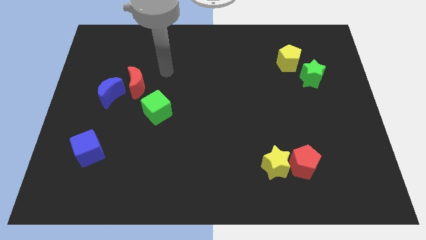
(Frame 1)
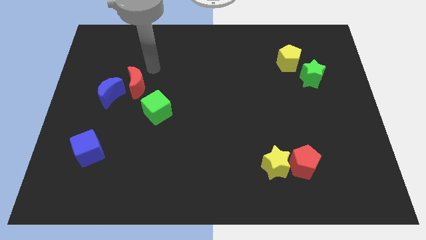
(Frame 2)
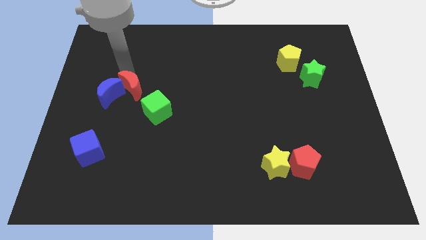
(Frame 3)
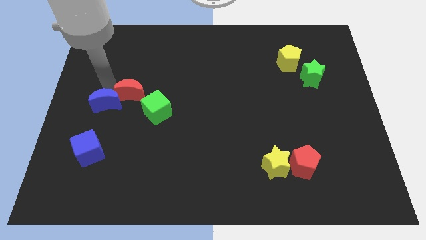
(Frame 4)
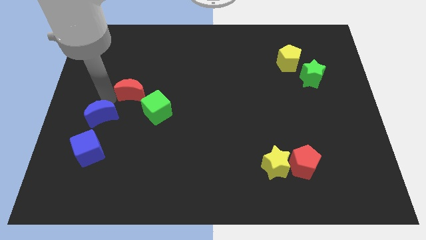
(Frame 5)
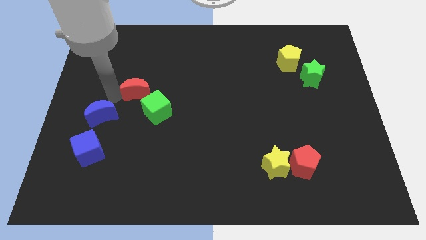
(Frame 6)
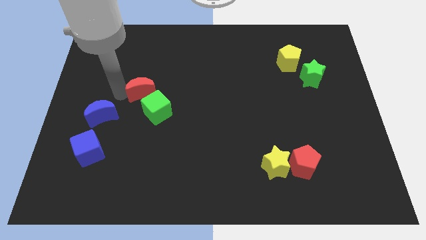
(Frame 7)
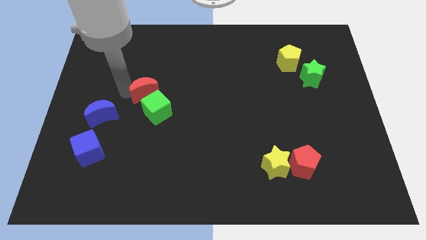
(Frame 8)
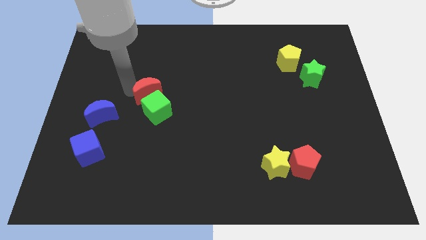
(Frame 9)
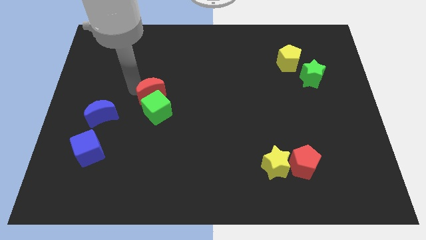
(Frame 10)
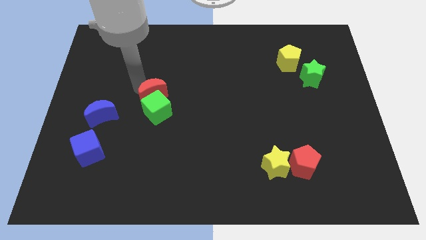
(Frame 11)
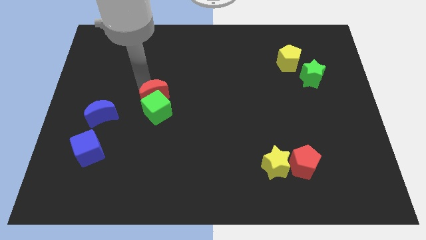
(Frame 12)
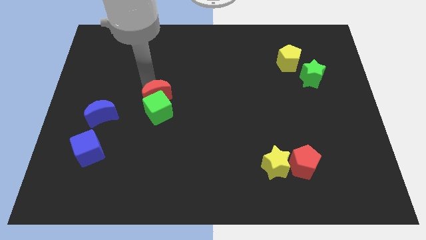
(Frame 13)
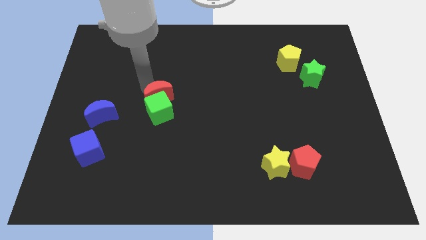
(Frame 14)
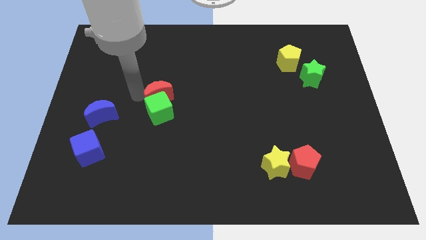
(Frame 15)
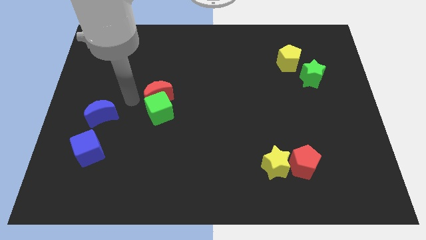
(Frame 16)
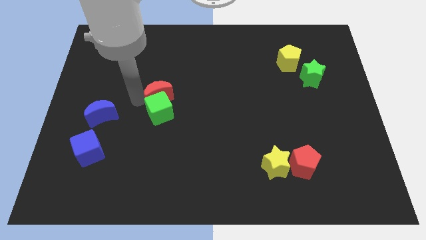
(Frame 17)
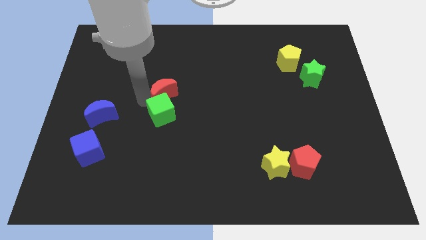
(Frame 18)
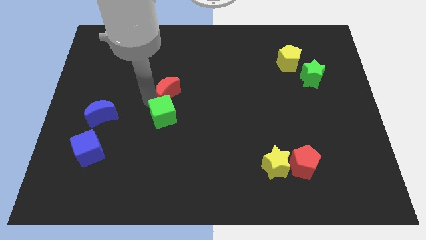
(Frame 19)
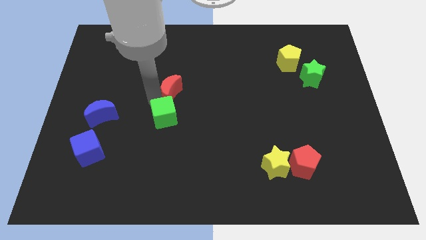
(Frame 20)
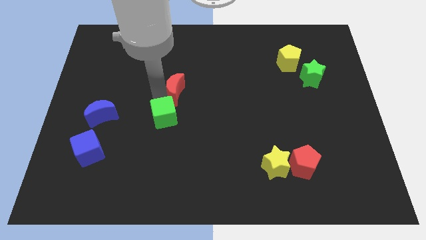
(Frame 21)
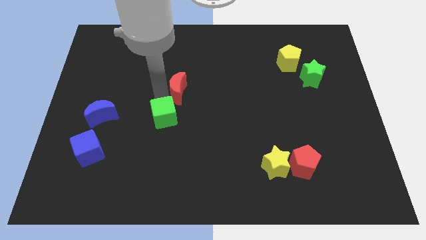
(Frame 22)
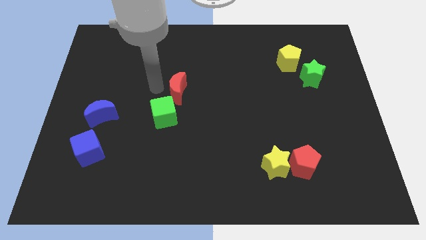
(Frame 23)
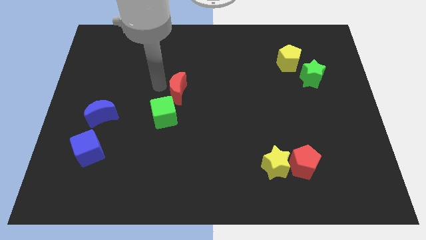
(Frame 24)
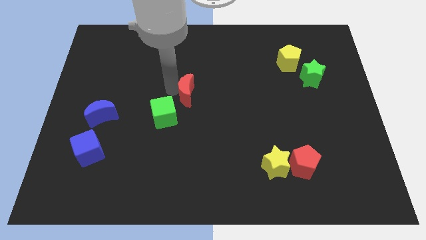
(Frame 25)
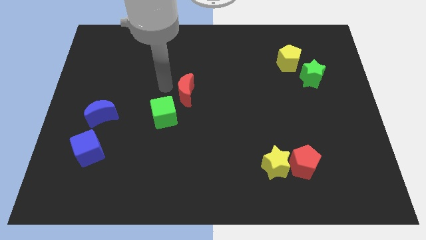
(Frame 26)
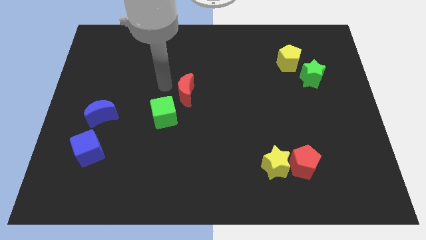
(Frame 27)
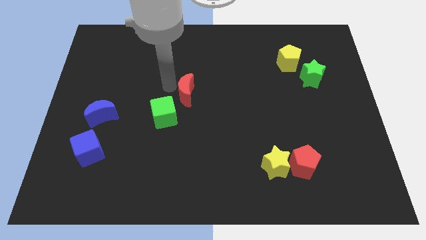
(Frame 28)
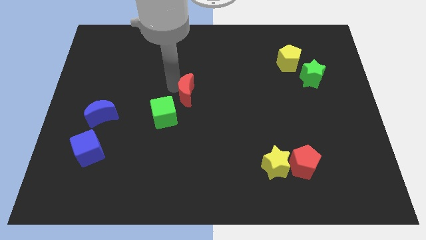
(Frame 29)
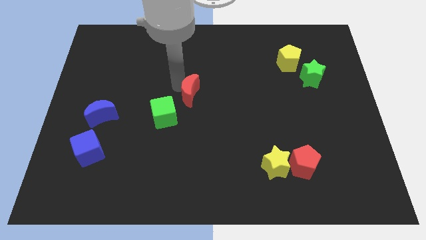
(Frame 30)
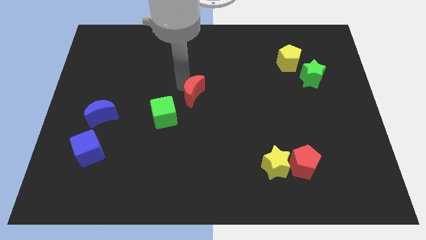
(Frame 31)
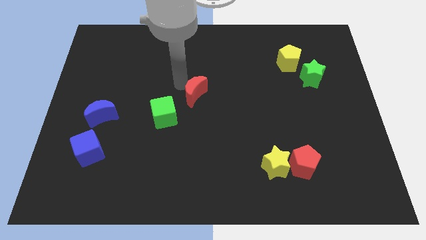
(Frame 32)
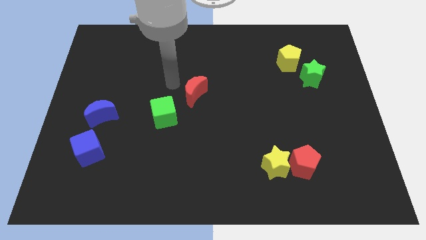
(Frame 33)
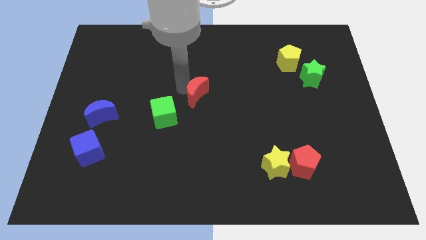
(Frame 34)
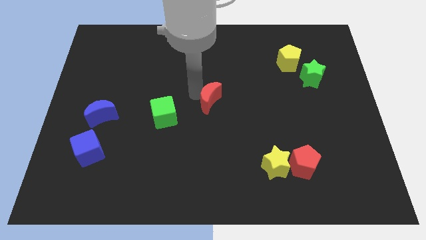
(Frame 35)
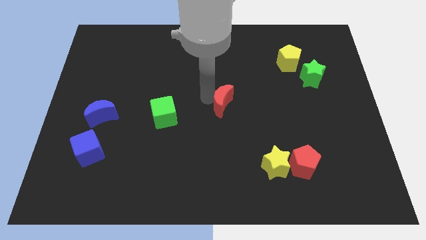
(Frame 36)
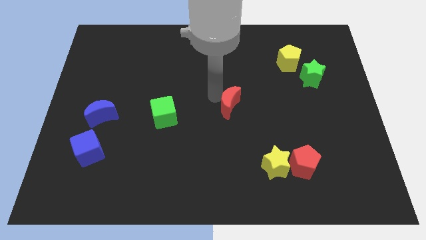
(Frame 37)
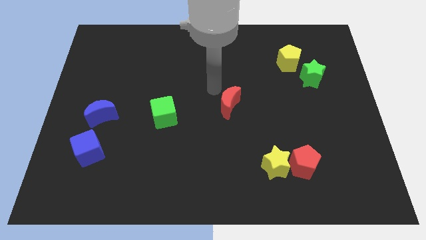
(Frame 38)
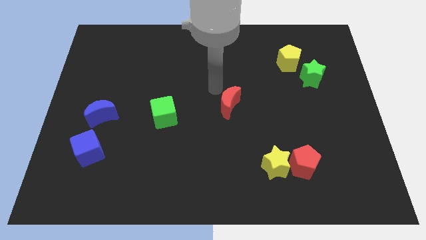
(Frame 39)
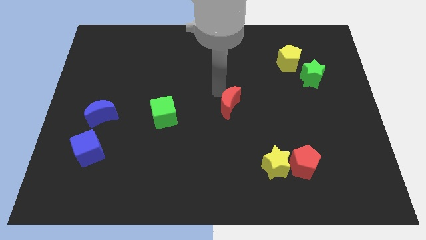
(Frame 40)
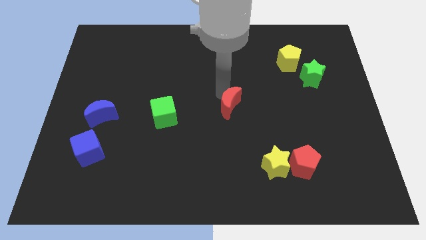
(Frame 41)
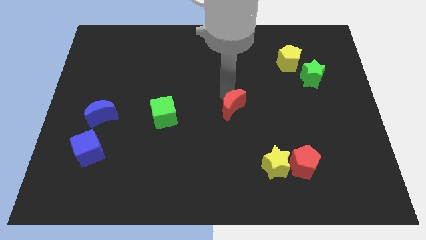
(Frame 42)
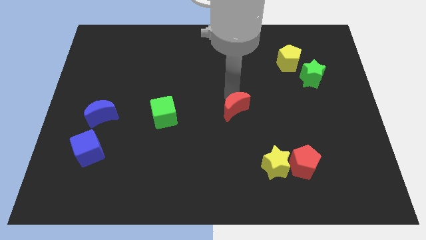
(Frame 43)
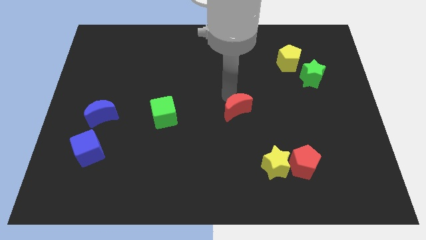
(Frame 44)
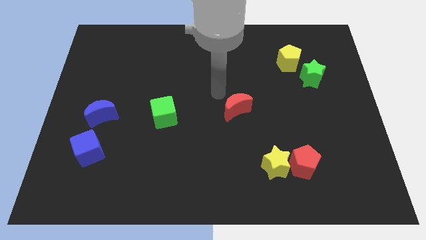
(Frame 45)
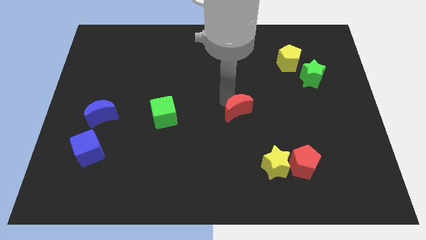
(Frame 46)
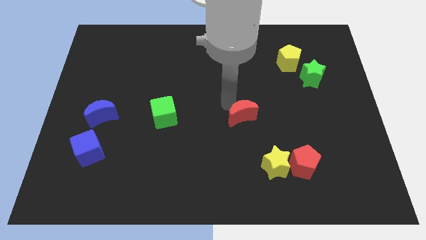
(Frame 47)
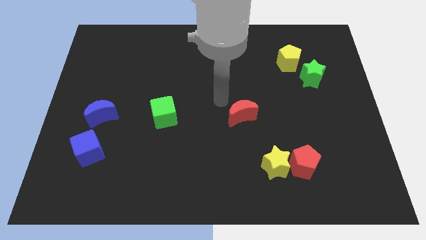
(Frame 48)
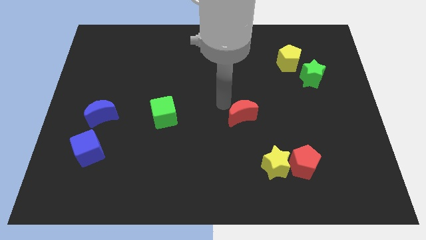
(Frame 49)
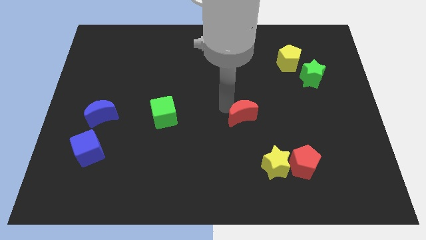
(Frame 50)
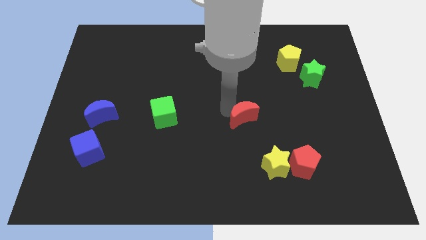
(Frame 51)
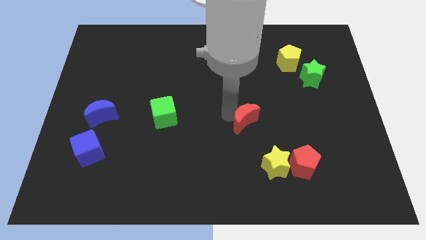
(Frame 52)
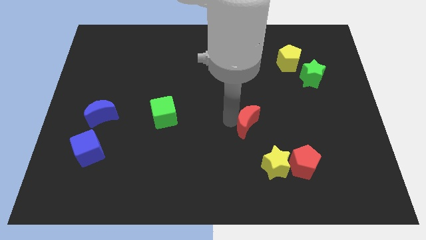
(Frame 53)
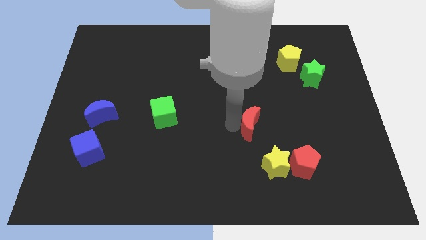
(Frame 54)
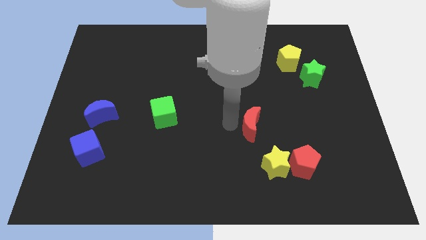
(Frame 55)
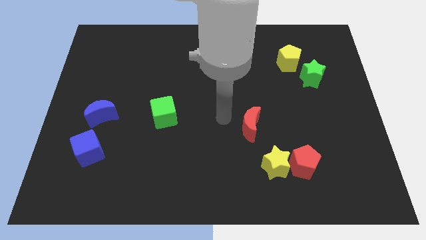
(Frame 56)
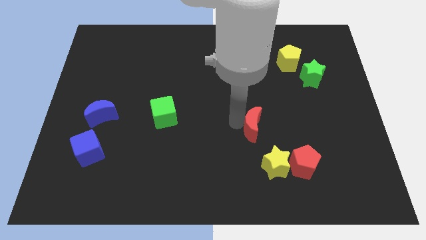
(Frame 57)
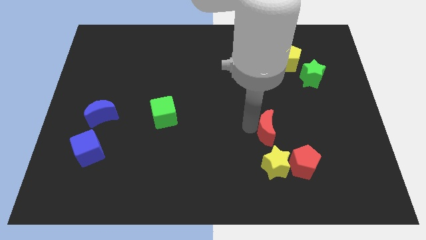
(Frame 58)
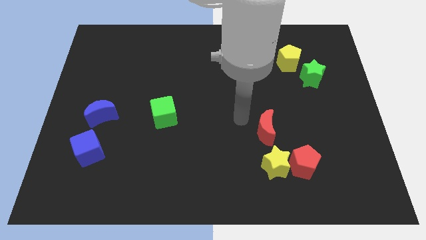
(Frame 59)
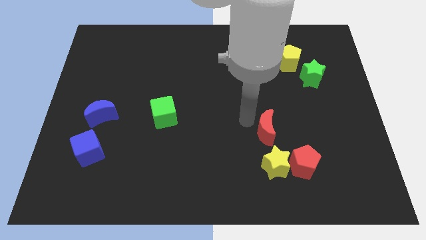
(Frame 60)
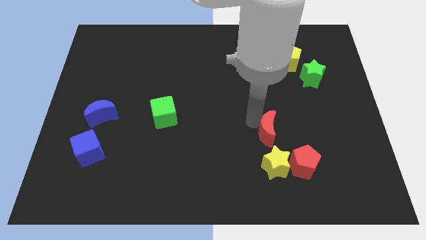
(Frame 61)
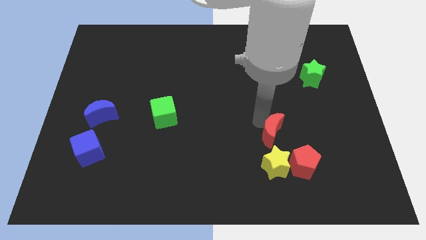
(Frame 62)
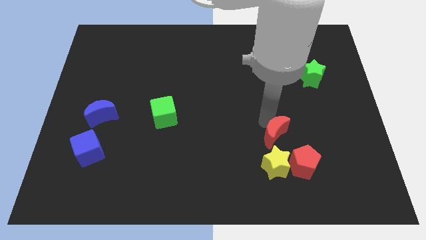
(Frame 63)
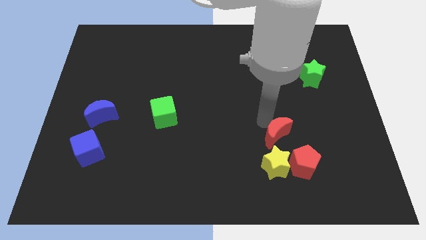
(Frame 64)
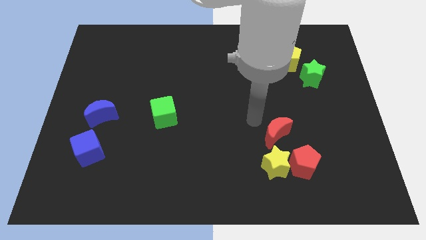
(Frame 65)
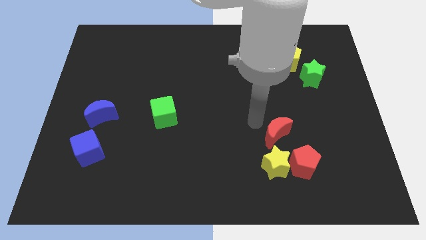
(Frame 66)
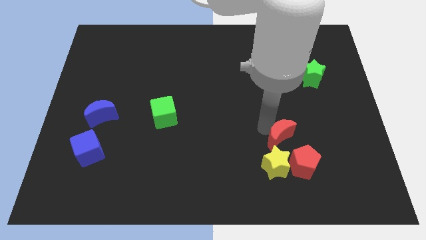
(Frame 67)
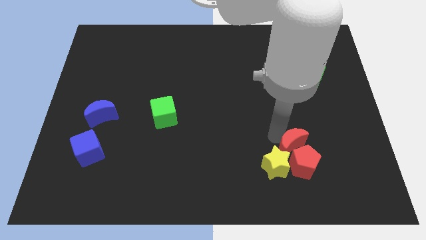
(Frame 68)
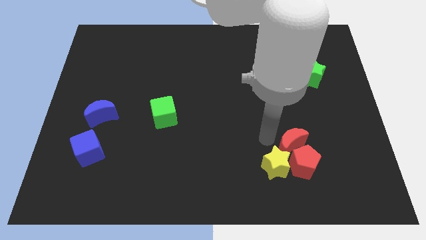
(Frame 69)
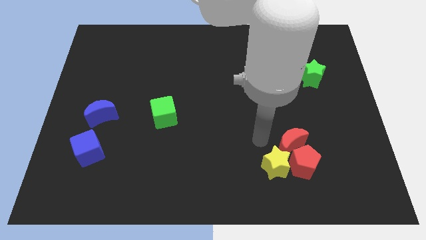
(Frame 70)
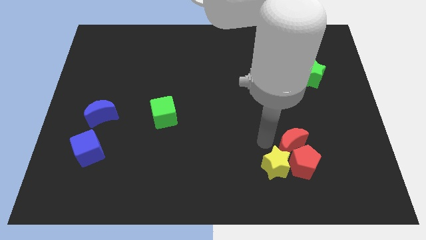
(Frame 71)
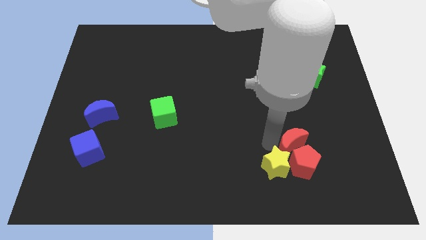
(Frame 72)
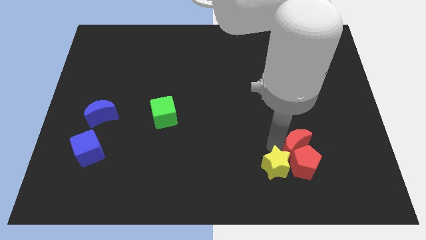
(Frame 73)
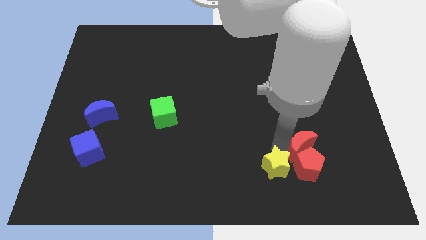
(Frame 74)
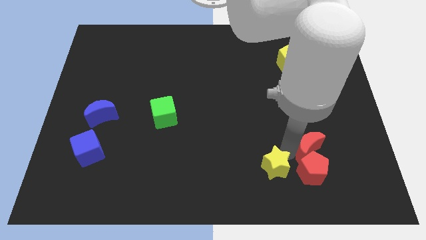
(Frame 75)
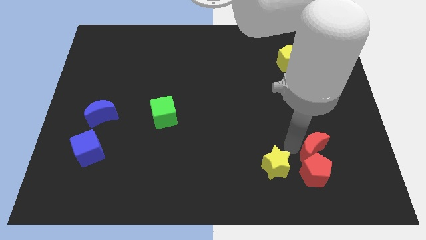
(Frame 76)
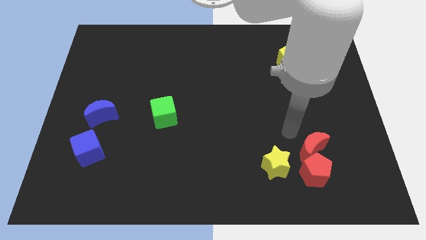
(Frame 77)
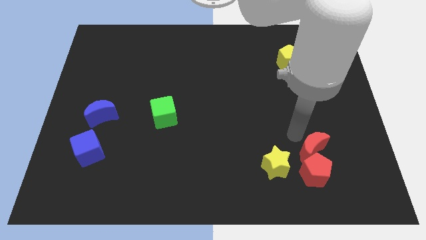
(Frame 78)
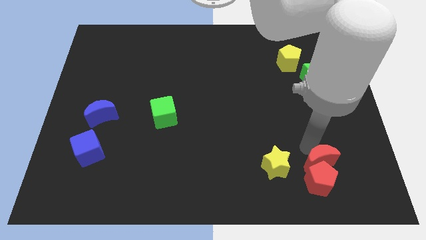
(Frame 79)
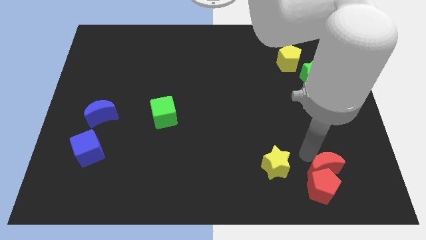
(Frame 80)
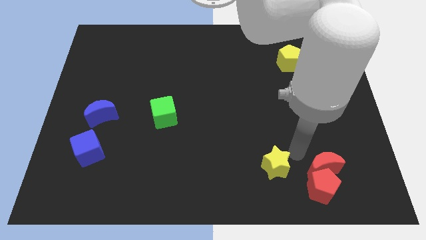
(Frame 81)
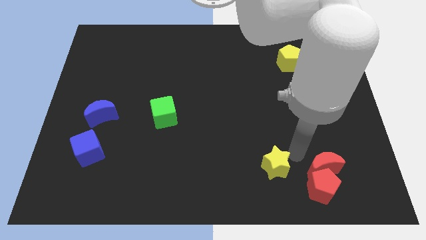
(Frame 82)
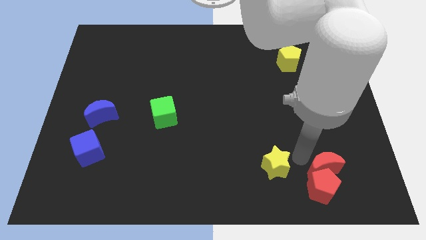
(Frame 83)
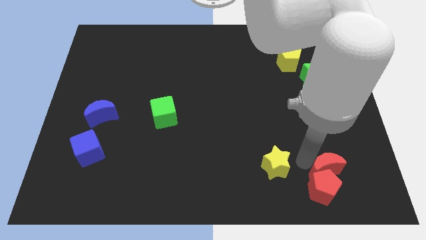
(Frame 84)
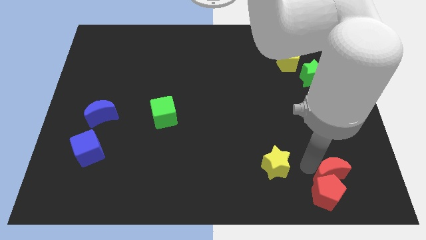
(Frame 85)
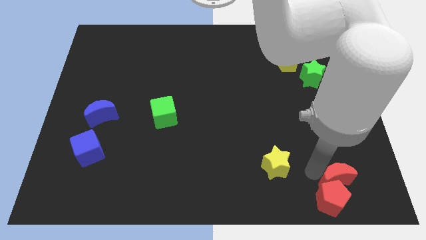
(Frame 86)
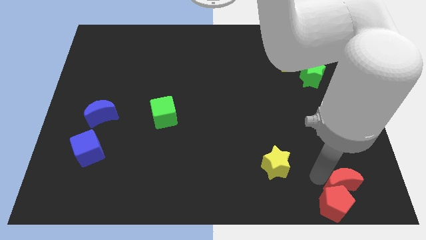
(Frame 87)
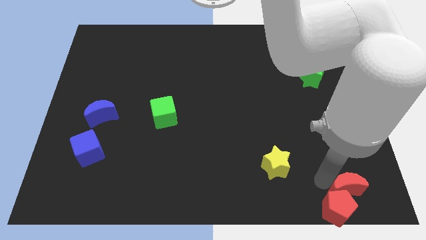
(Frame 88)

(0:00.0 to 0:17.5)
slide the red moon to the bottom right corner
